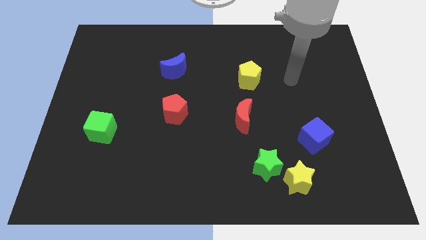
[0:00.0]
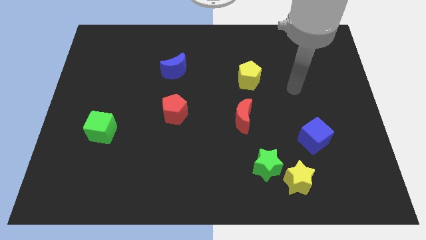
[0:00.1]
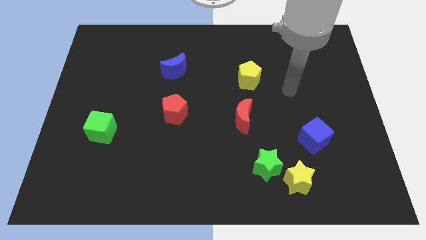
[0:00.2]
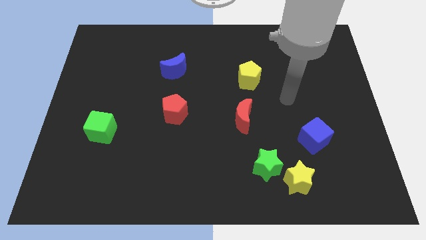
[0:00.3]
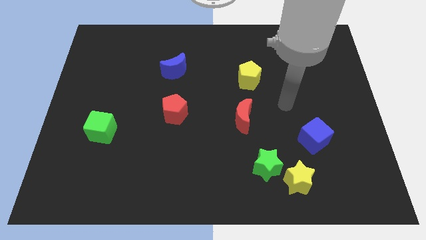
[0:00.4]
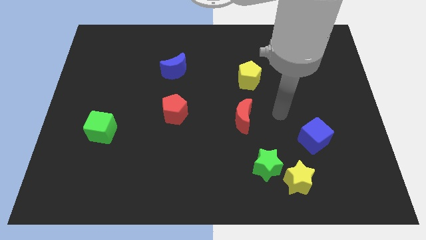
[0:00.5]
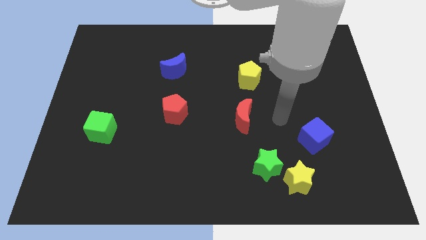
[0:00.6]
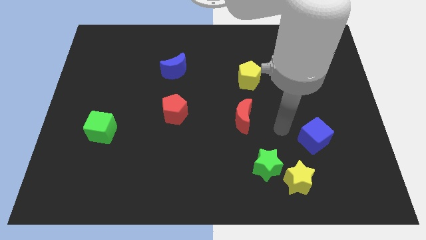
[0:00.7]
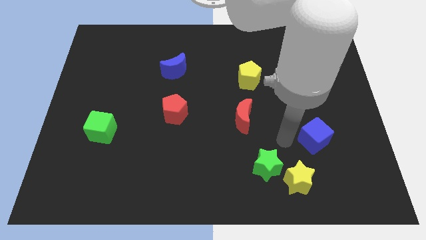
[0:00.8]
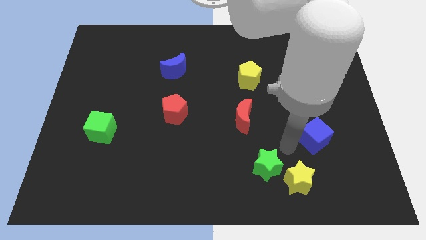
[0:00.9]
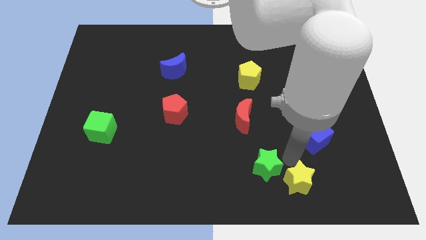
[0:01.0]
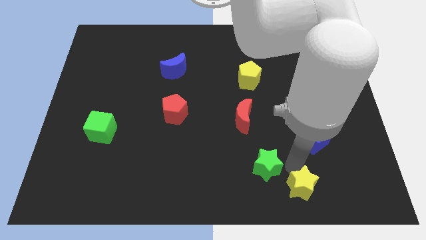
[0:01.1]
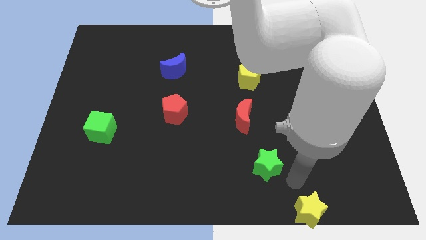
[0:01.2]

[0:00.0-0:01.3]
pull the green star apart from the yellow star

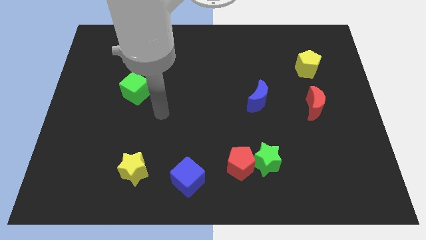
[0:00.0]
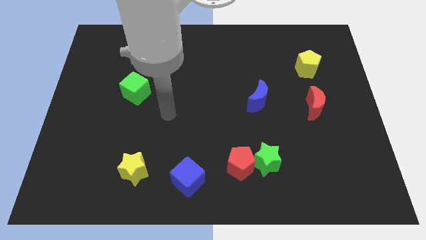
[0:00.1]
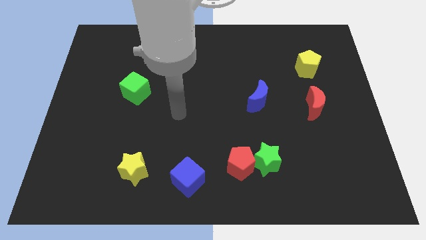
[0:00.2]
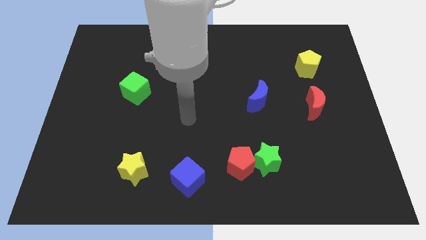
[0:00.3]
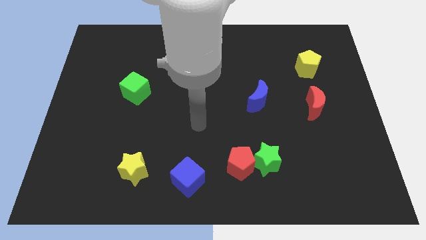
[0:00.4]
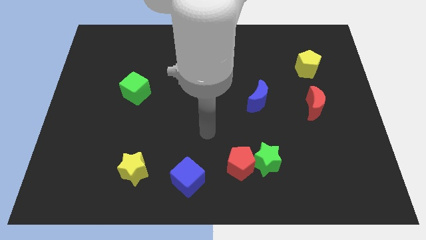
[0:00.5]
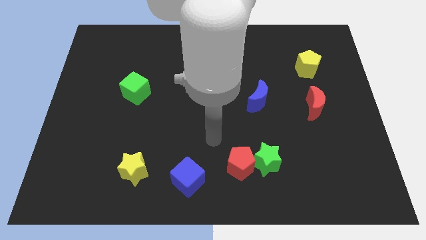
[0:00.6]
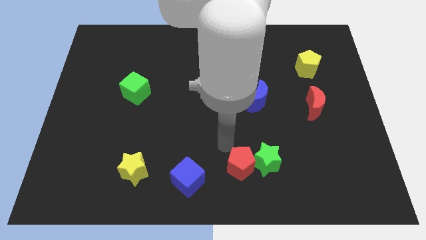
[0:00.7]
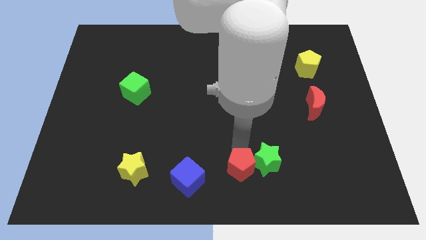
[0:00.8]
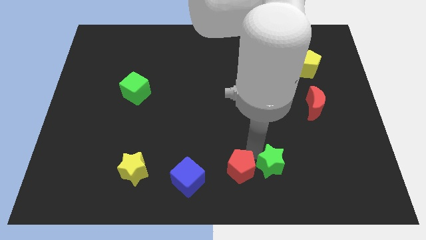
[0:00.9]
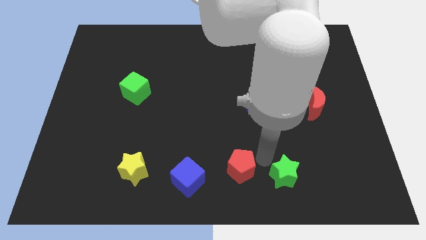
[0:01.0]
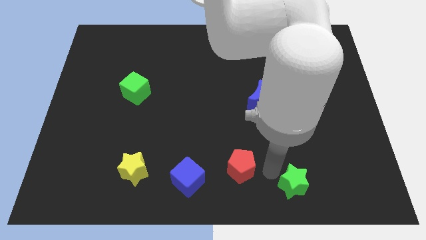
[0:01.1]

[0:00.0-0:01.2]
separate the red pentagon from the green star

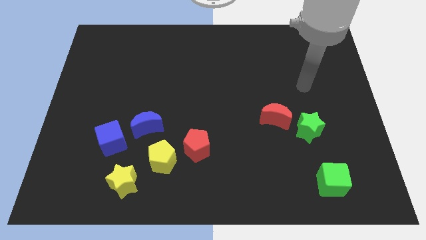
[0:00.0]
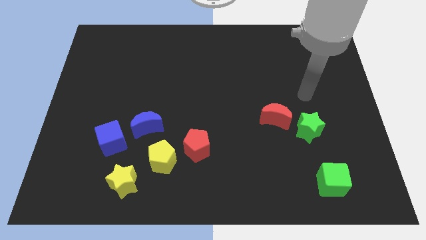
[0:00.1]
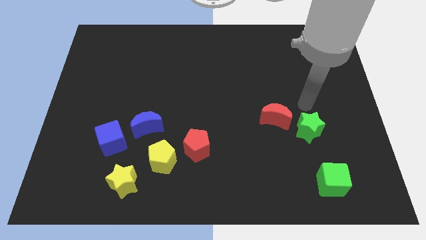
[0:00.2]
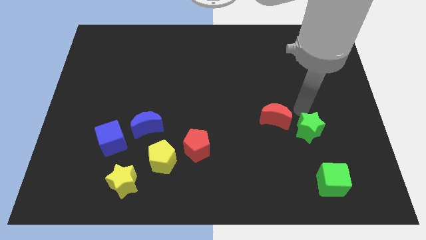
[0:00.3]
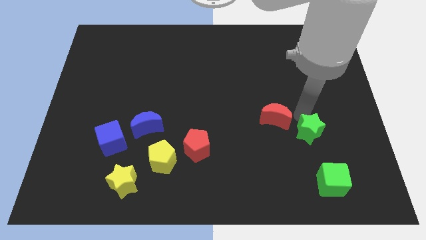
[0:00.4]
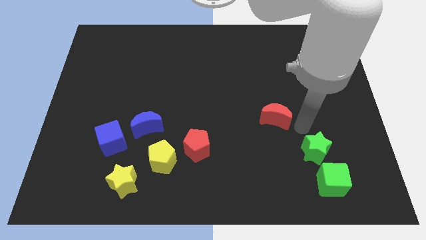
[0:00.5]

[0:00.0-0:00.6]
separate the red moon from the green star

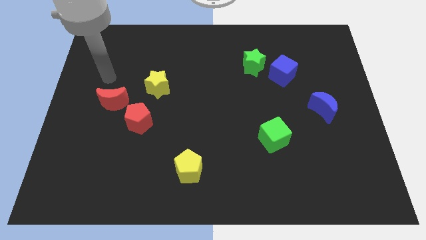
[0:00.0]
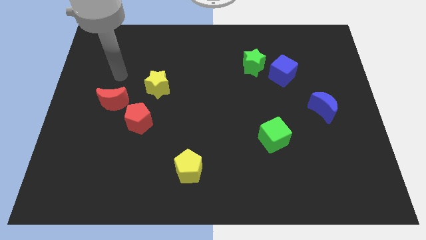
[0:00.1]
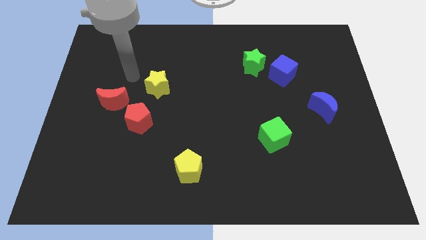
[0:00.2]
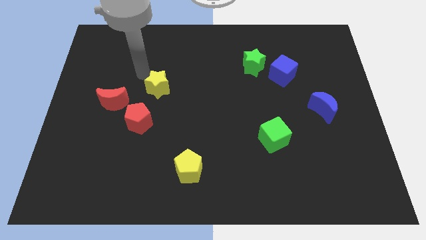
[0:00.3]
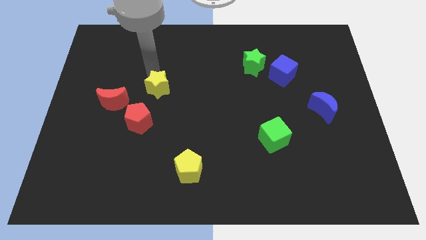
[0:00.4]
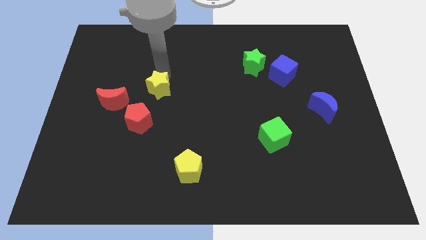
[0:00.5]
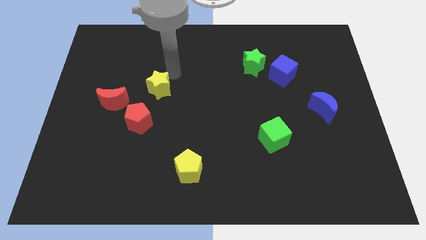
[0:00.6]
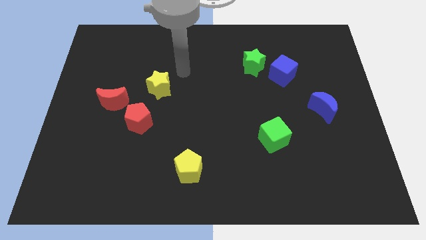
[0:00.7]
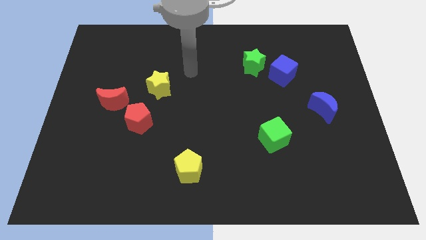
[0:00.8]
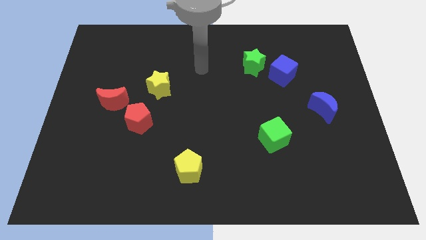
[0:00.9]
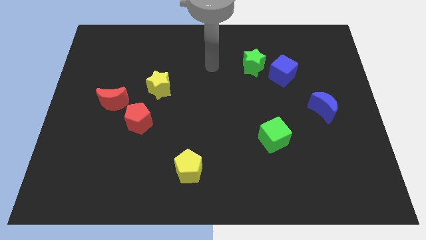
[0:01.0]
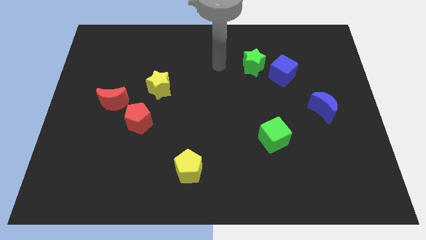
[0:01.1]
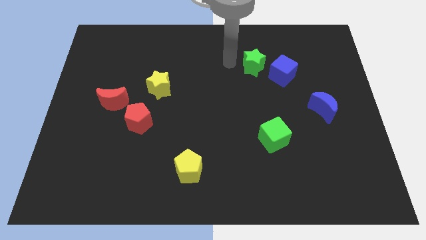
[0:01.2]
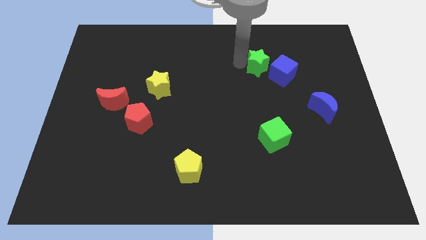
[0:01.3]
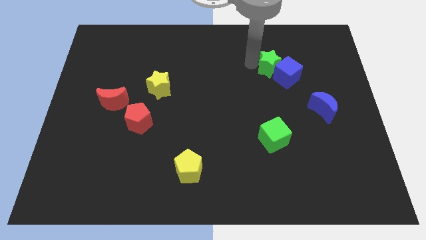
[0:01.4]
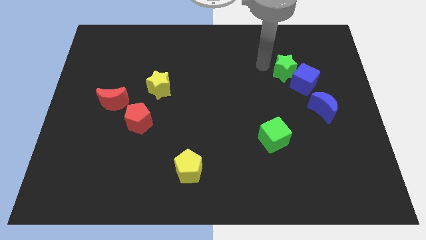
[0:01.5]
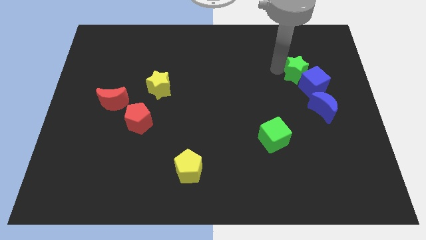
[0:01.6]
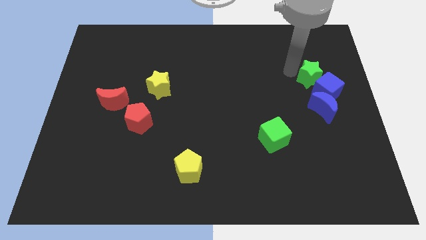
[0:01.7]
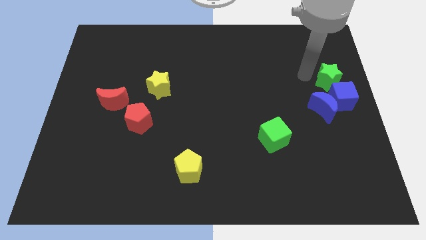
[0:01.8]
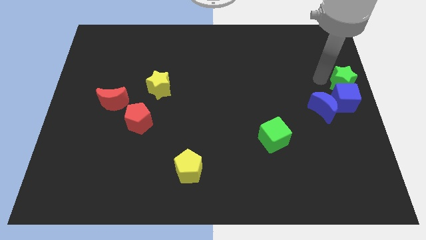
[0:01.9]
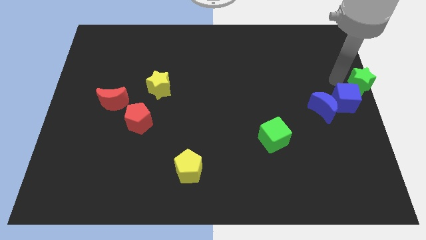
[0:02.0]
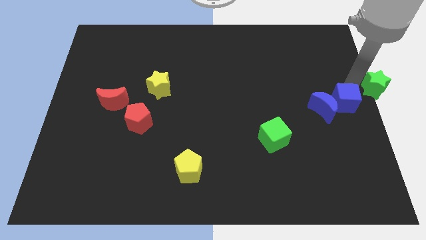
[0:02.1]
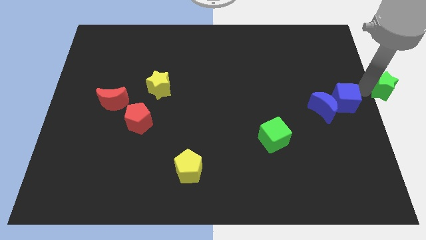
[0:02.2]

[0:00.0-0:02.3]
pull the blue cube apart from the green star

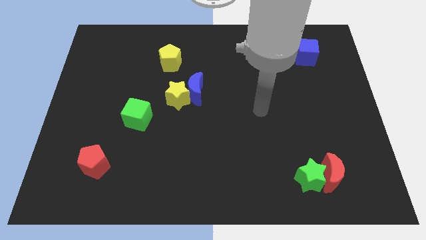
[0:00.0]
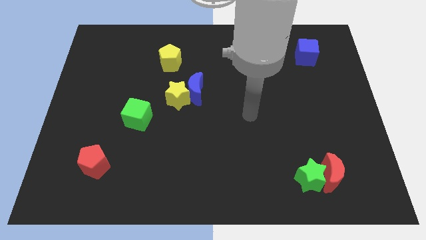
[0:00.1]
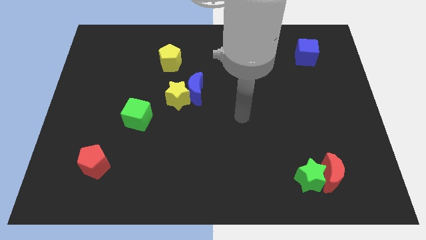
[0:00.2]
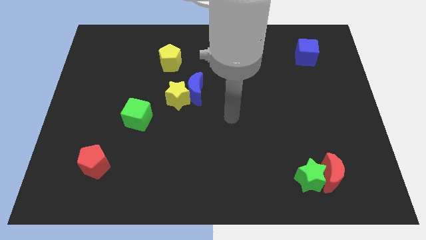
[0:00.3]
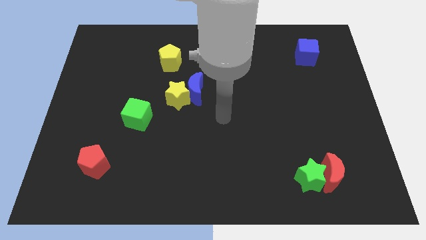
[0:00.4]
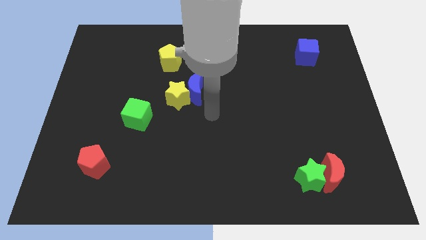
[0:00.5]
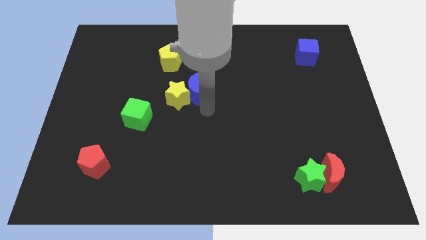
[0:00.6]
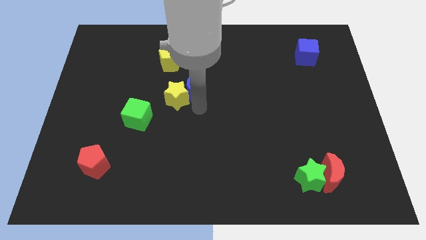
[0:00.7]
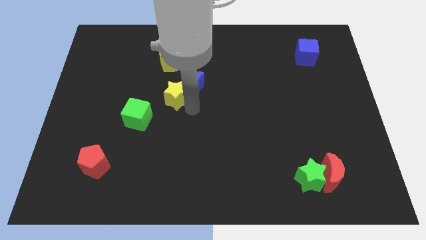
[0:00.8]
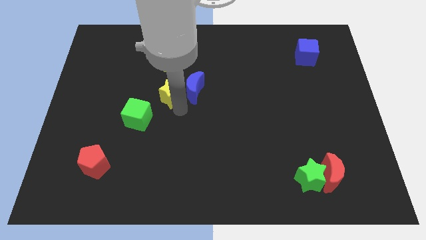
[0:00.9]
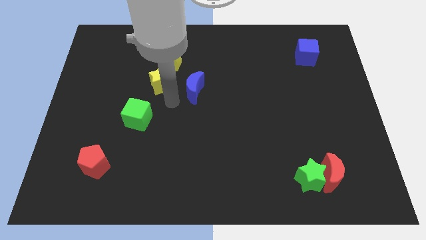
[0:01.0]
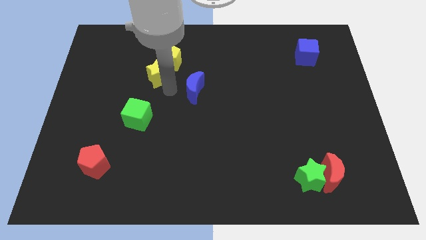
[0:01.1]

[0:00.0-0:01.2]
separate the blue moon from the yellow star

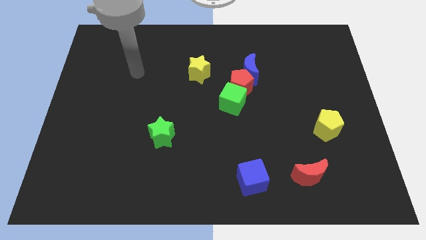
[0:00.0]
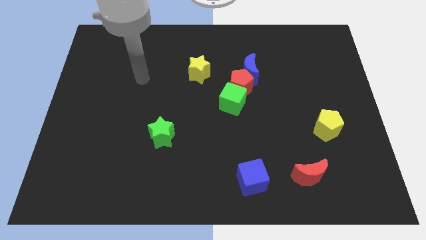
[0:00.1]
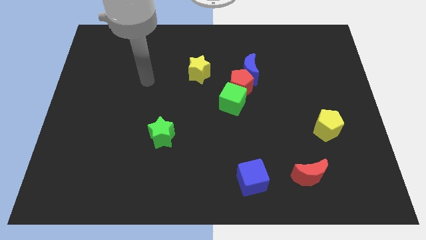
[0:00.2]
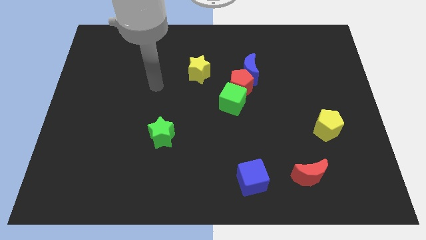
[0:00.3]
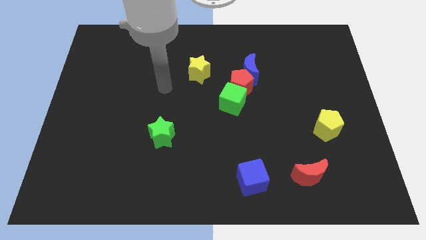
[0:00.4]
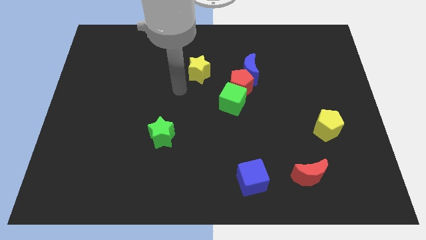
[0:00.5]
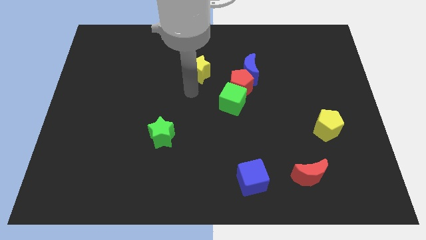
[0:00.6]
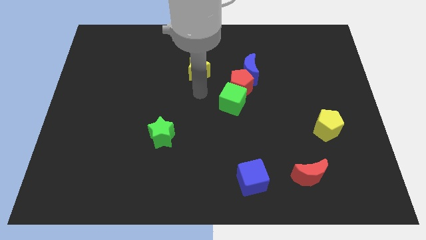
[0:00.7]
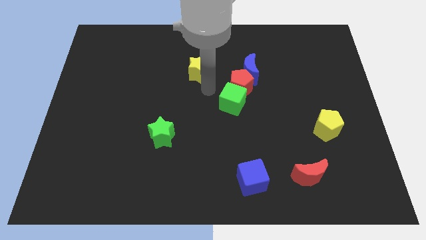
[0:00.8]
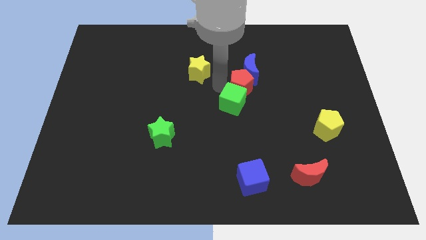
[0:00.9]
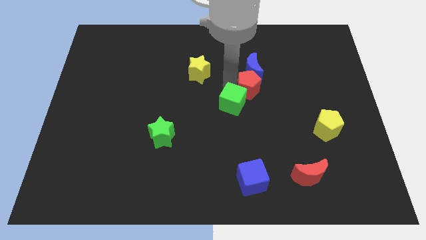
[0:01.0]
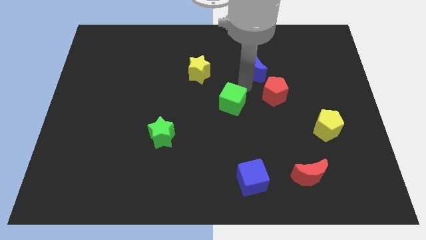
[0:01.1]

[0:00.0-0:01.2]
pull the green cube apart from the red pentagon

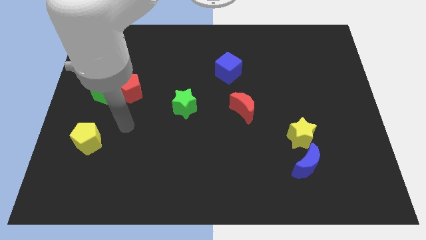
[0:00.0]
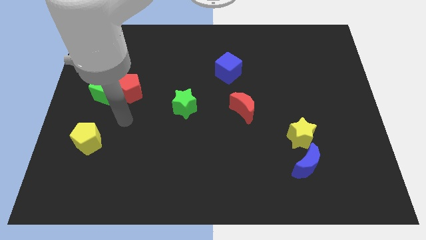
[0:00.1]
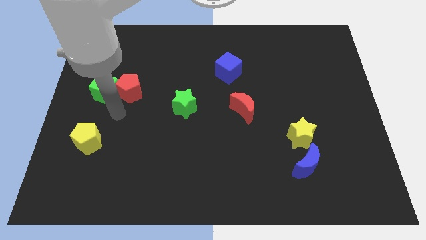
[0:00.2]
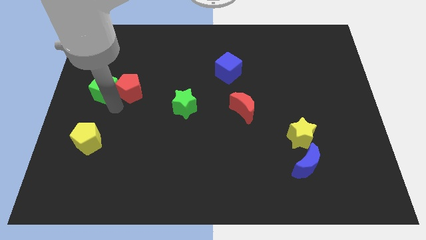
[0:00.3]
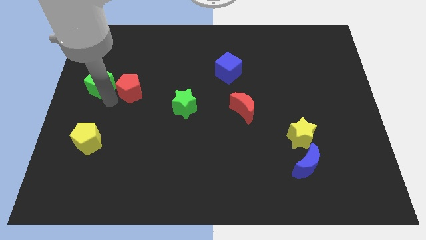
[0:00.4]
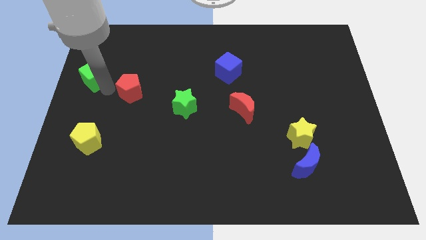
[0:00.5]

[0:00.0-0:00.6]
pull the red pentagon apart from the green cube

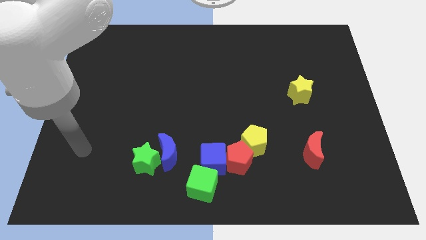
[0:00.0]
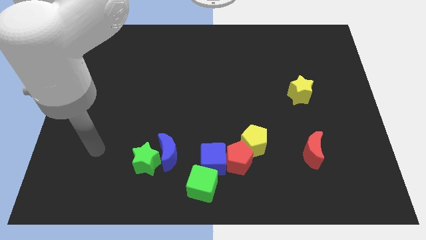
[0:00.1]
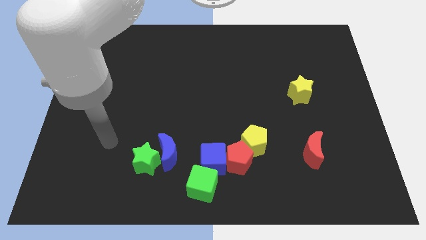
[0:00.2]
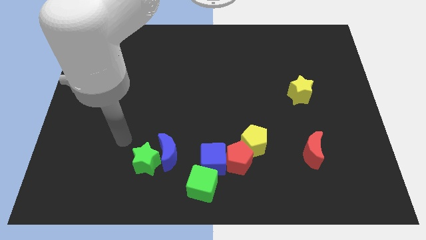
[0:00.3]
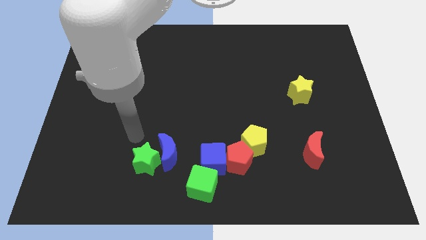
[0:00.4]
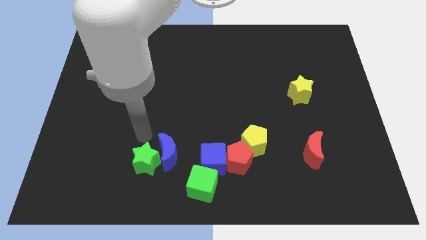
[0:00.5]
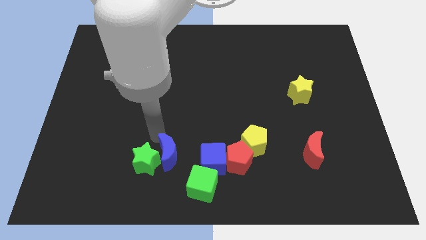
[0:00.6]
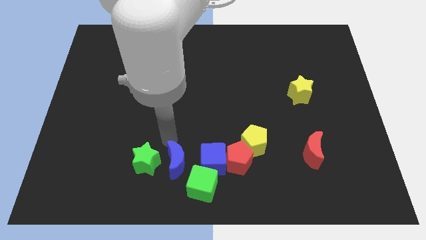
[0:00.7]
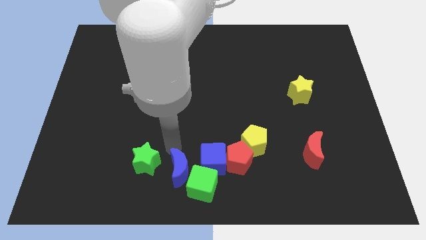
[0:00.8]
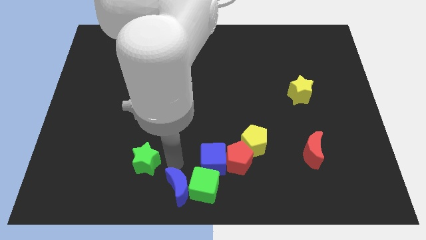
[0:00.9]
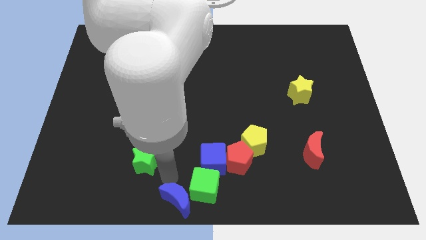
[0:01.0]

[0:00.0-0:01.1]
separate the green star from the blue moon
